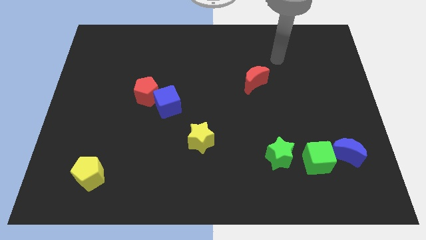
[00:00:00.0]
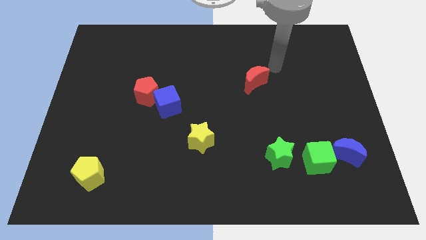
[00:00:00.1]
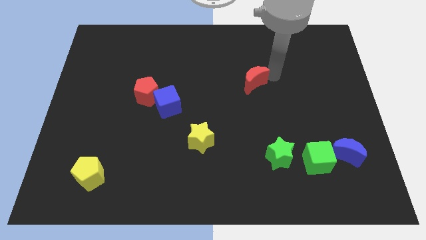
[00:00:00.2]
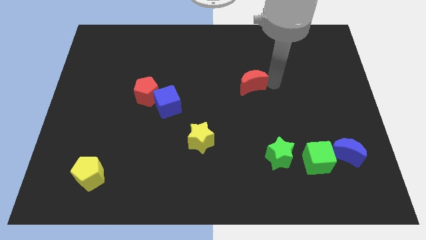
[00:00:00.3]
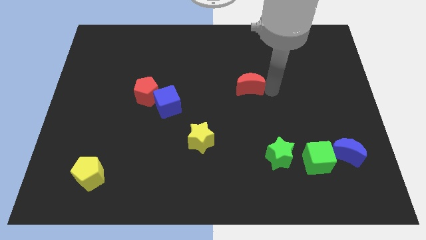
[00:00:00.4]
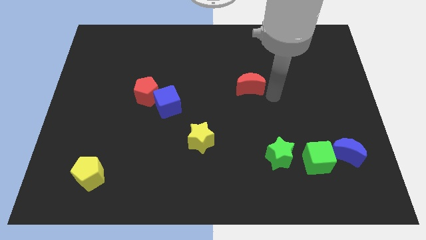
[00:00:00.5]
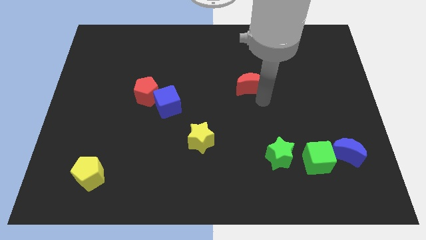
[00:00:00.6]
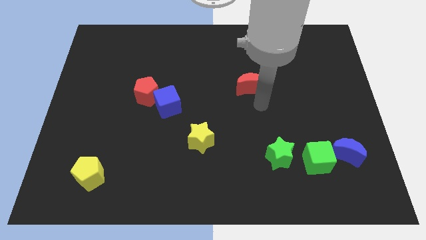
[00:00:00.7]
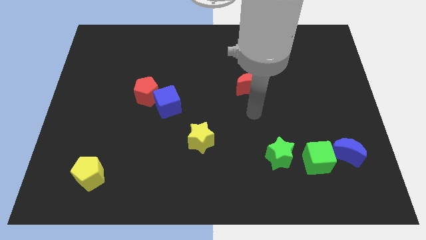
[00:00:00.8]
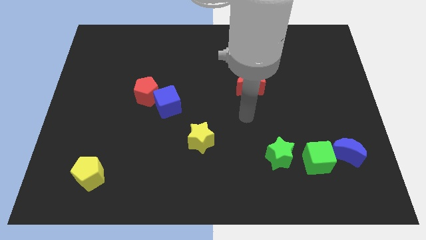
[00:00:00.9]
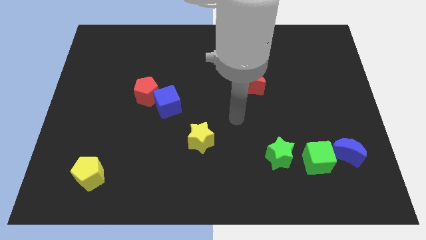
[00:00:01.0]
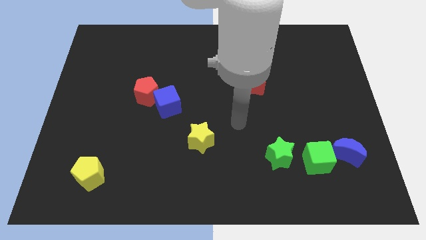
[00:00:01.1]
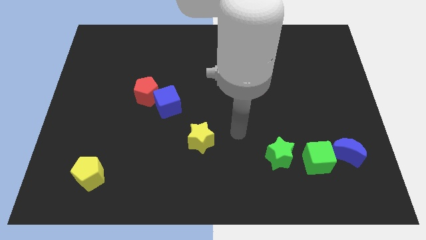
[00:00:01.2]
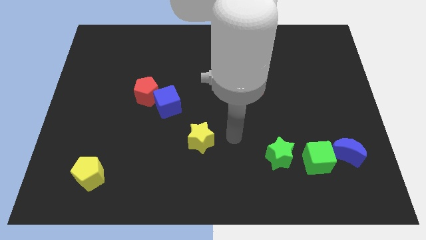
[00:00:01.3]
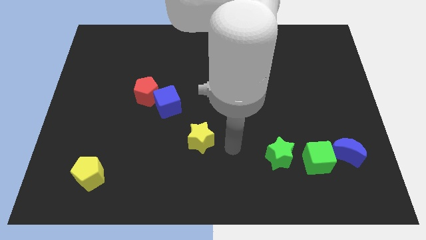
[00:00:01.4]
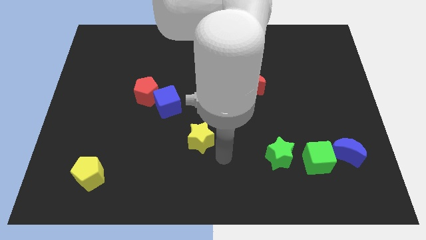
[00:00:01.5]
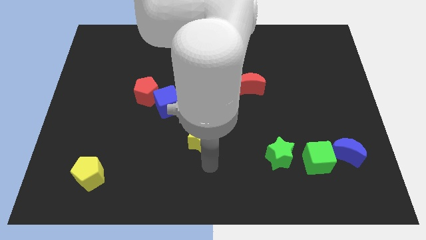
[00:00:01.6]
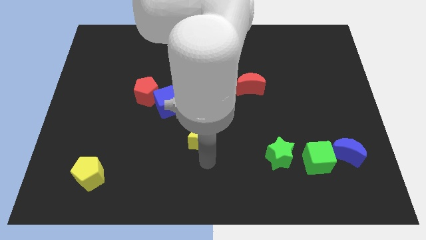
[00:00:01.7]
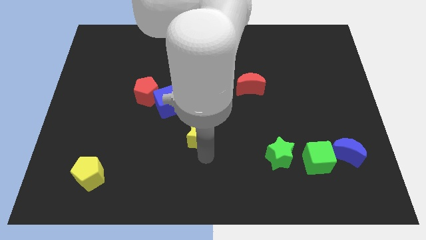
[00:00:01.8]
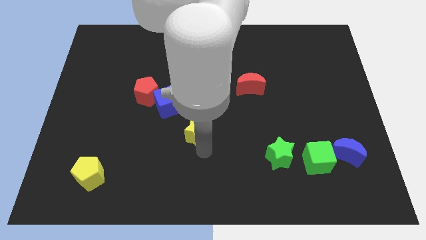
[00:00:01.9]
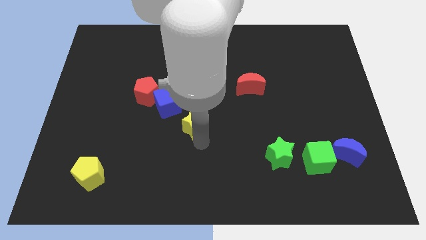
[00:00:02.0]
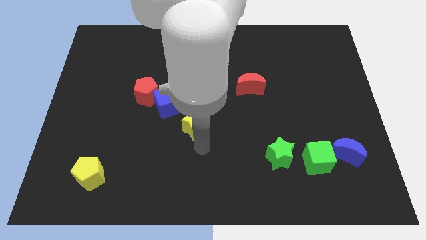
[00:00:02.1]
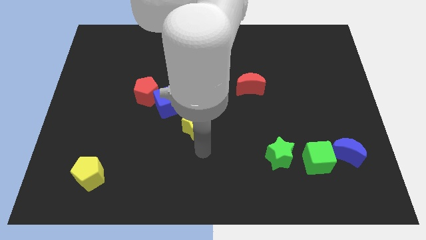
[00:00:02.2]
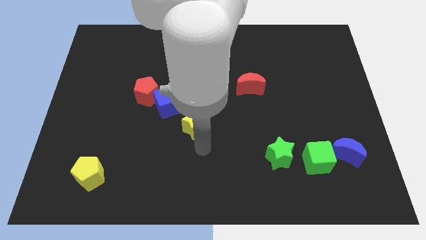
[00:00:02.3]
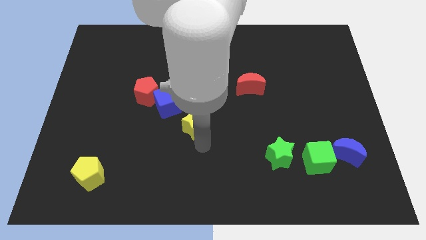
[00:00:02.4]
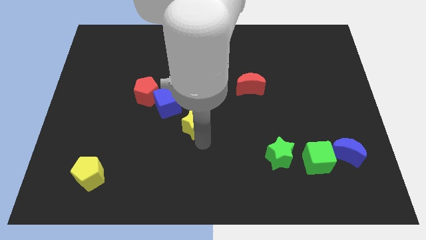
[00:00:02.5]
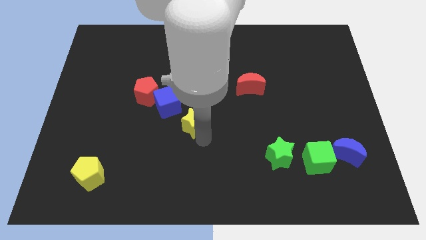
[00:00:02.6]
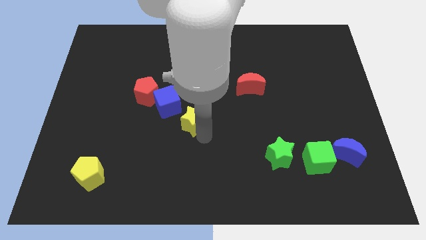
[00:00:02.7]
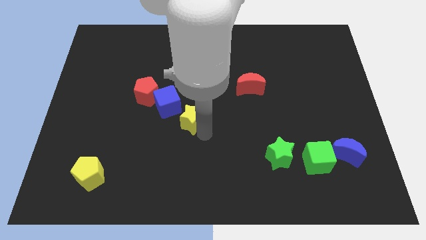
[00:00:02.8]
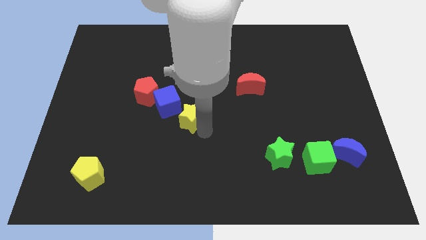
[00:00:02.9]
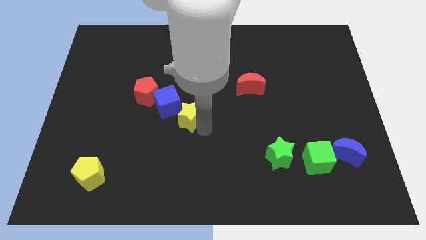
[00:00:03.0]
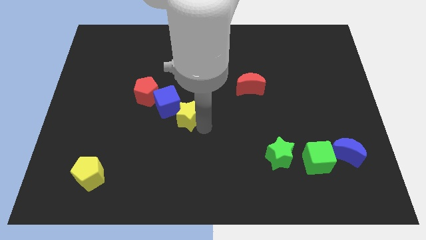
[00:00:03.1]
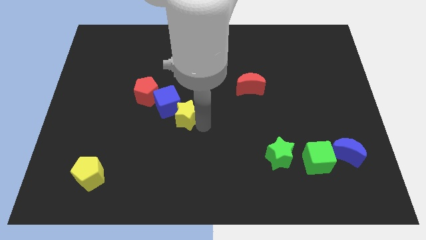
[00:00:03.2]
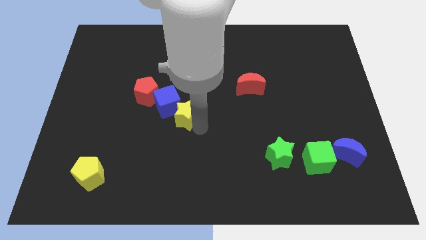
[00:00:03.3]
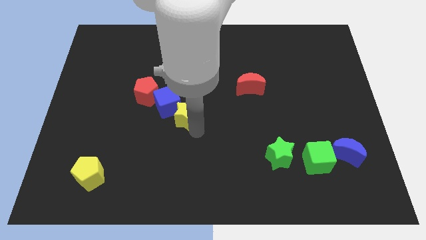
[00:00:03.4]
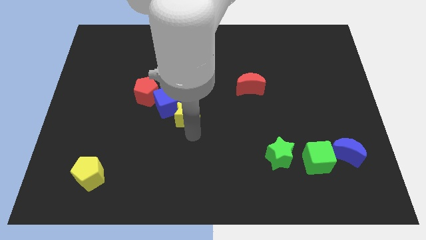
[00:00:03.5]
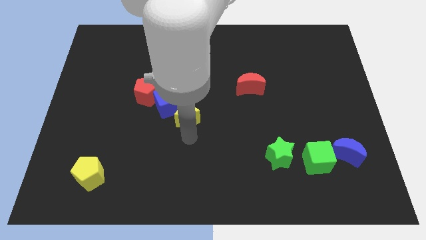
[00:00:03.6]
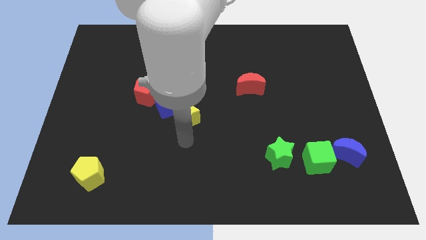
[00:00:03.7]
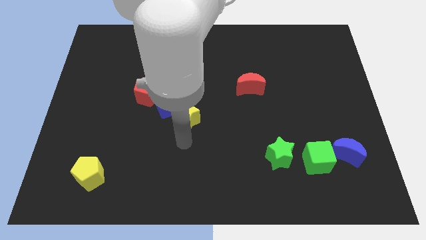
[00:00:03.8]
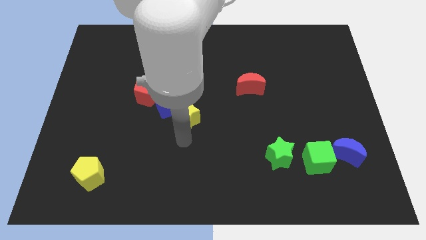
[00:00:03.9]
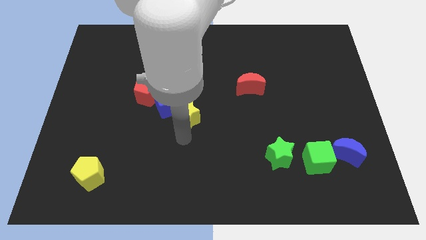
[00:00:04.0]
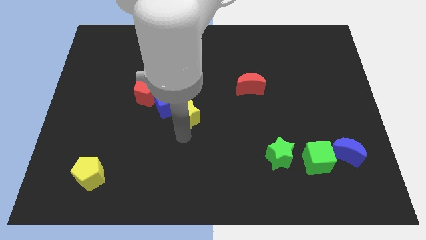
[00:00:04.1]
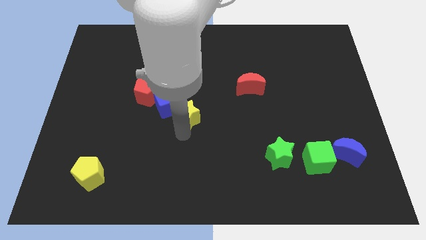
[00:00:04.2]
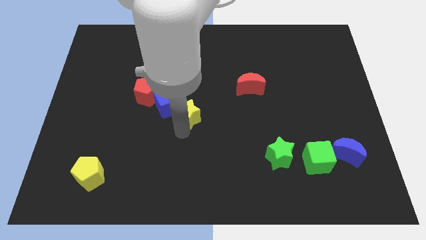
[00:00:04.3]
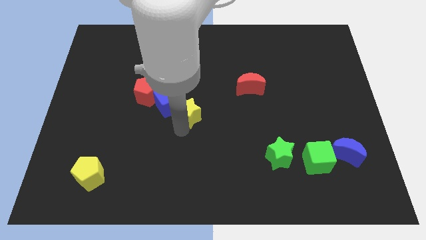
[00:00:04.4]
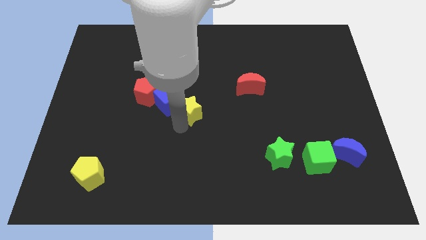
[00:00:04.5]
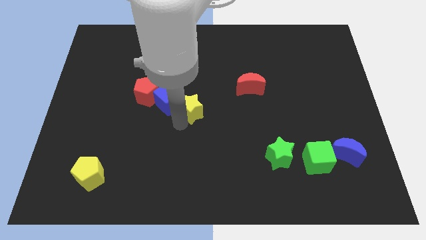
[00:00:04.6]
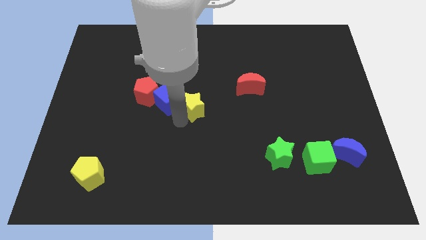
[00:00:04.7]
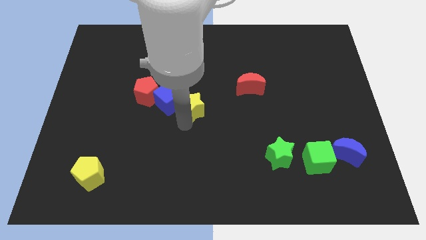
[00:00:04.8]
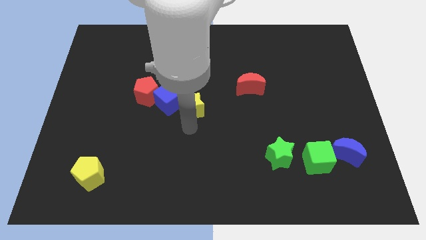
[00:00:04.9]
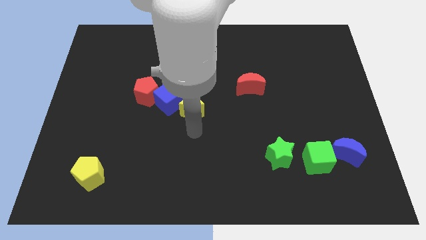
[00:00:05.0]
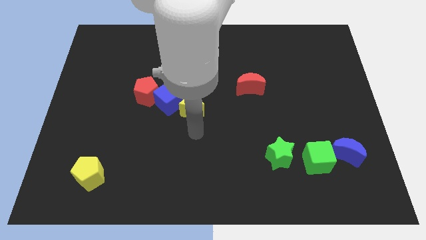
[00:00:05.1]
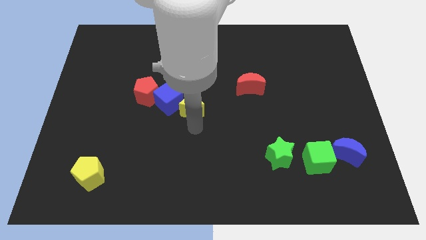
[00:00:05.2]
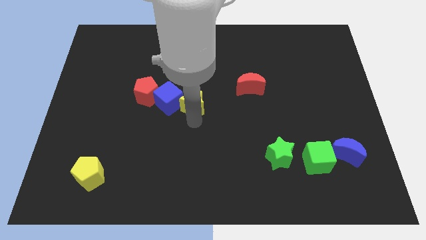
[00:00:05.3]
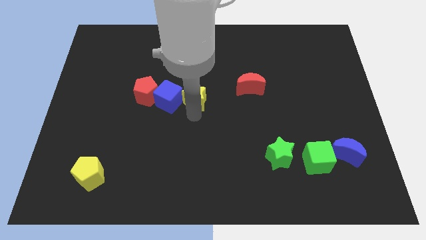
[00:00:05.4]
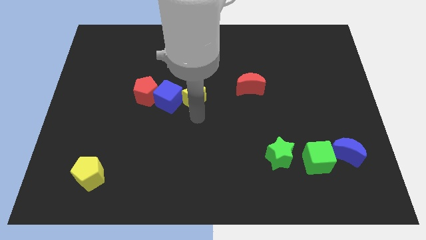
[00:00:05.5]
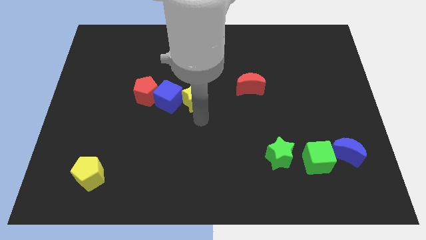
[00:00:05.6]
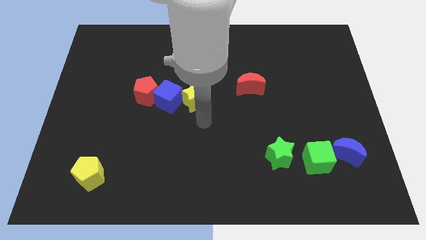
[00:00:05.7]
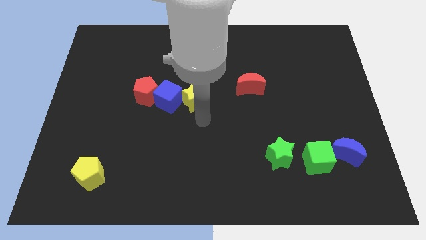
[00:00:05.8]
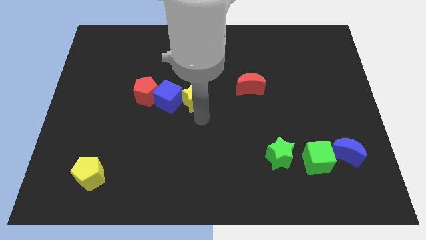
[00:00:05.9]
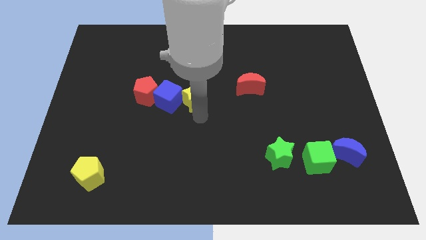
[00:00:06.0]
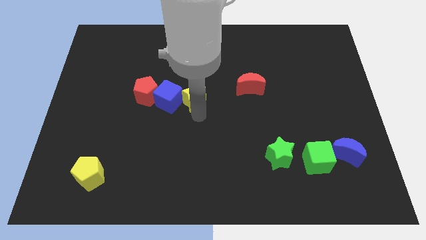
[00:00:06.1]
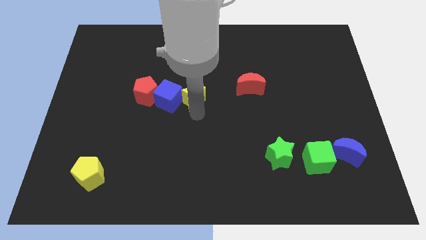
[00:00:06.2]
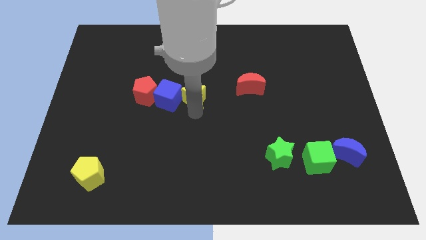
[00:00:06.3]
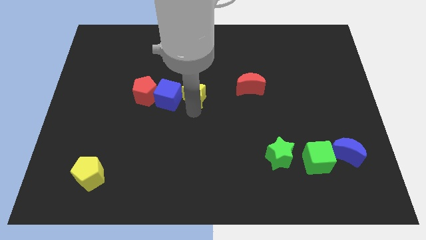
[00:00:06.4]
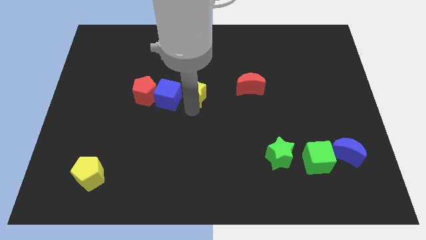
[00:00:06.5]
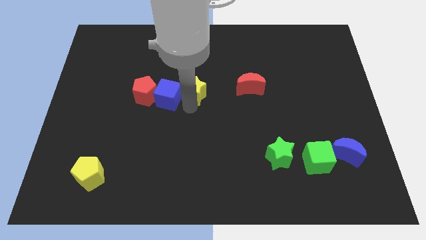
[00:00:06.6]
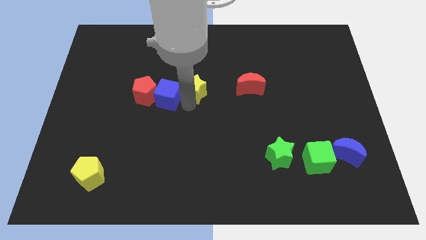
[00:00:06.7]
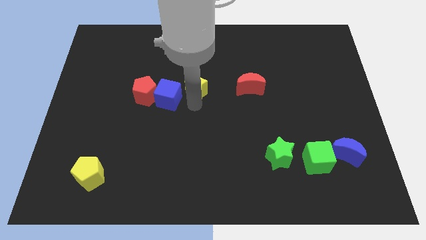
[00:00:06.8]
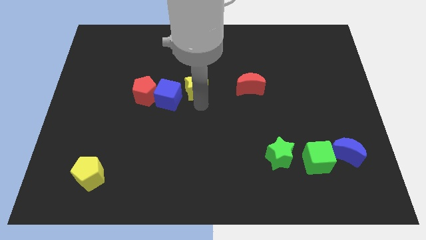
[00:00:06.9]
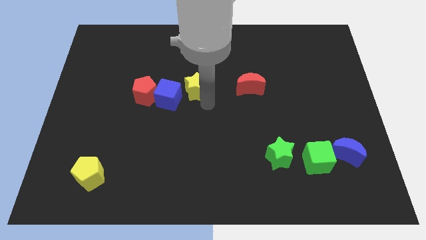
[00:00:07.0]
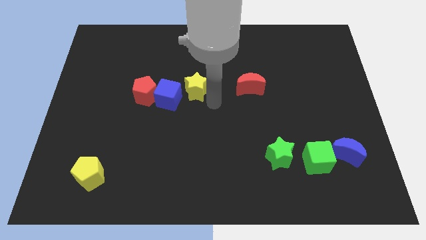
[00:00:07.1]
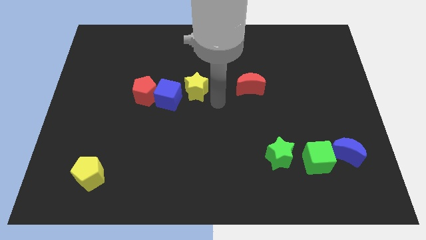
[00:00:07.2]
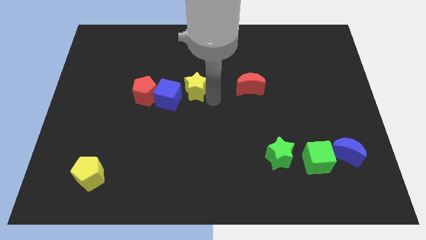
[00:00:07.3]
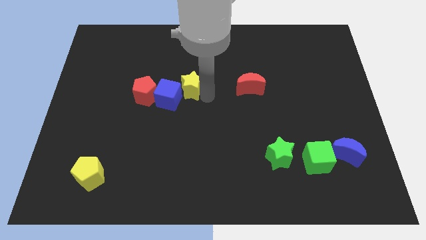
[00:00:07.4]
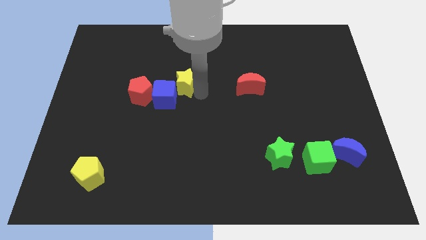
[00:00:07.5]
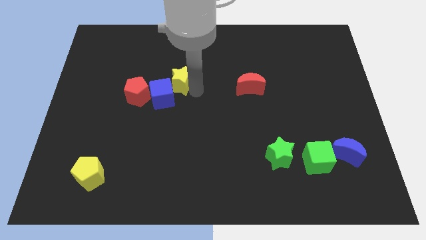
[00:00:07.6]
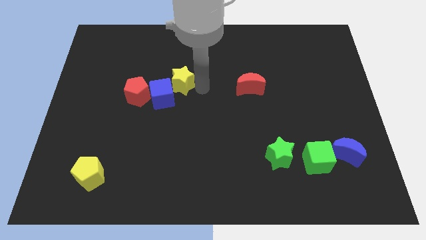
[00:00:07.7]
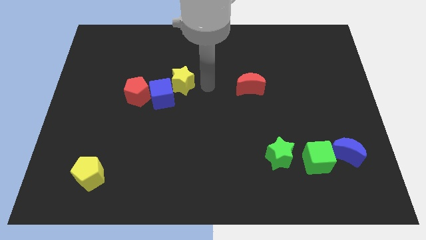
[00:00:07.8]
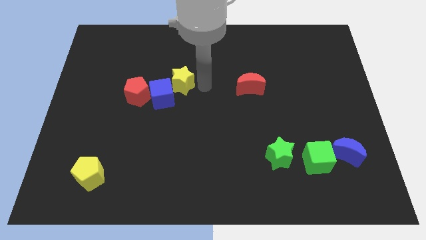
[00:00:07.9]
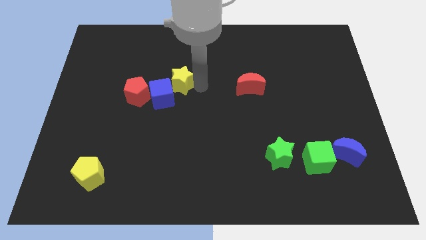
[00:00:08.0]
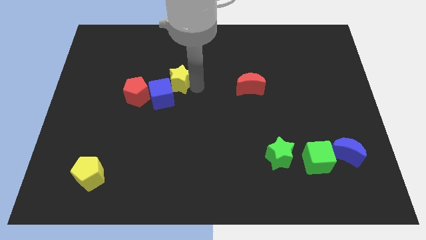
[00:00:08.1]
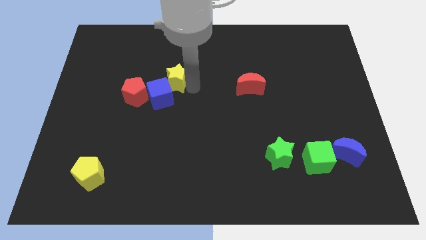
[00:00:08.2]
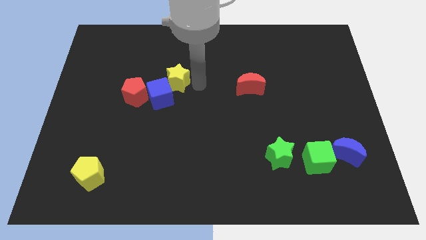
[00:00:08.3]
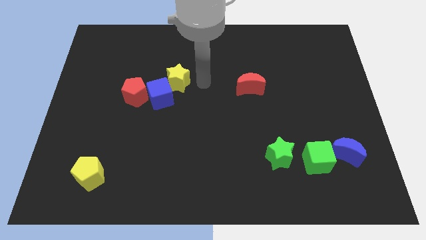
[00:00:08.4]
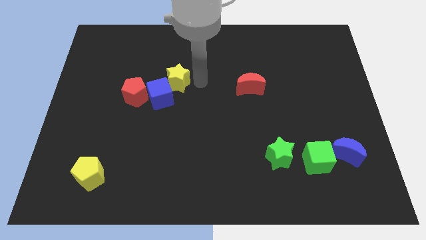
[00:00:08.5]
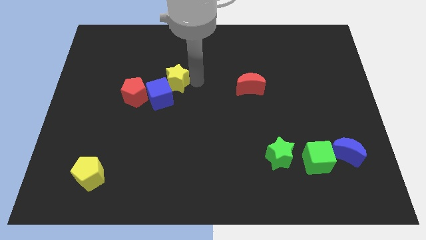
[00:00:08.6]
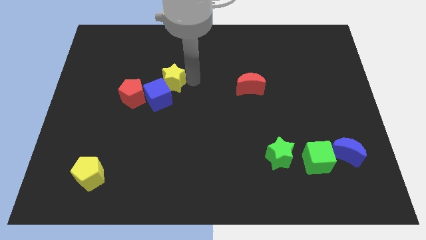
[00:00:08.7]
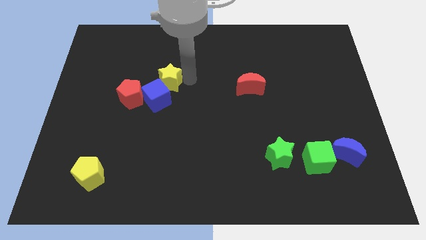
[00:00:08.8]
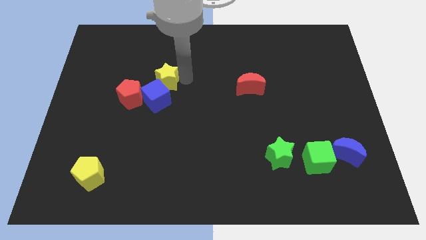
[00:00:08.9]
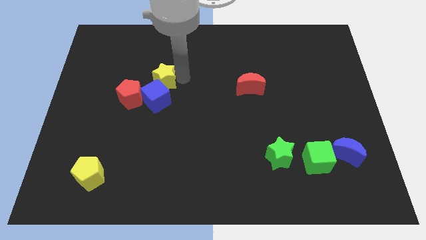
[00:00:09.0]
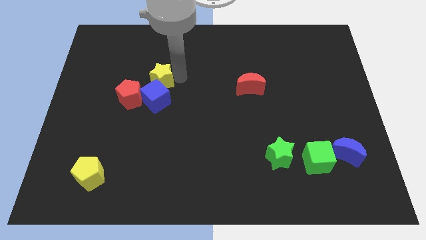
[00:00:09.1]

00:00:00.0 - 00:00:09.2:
slide the yellow star diagonally up and to the left of the blue cube
